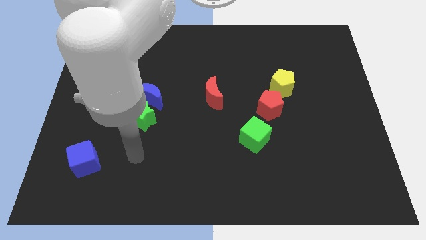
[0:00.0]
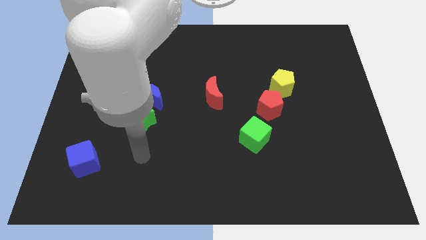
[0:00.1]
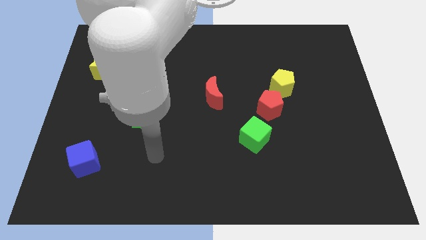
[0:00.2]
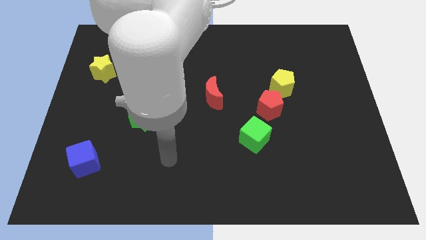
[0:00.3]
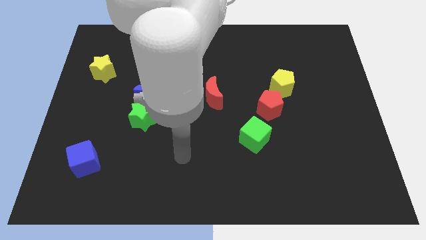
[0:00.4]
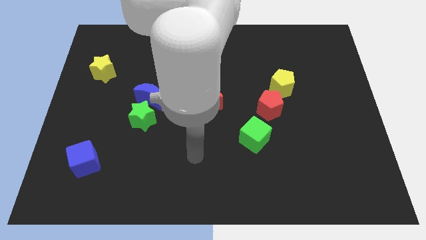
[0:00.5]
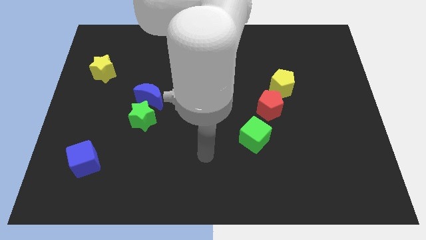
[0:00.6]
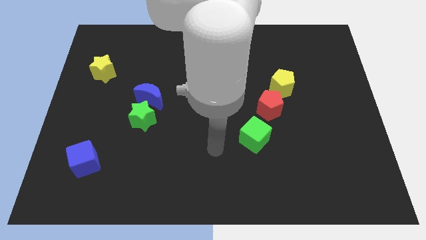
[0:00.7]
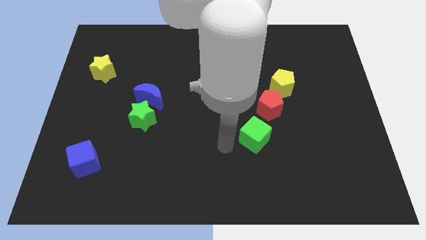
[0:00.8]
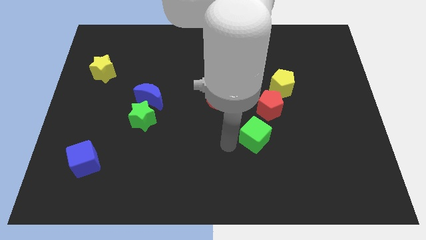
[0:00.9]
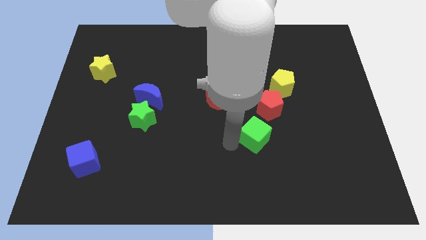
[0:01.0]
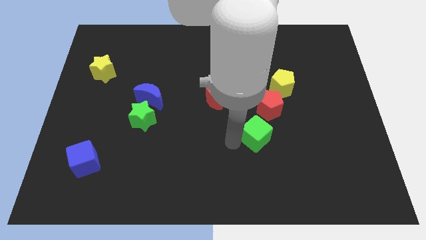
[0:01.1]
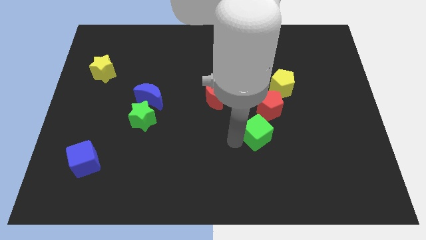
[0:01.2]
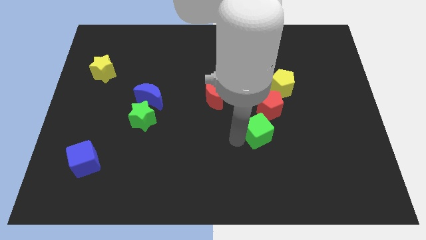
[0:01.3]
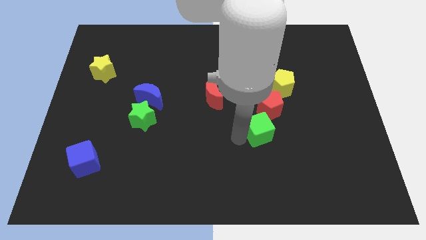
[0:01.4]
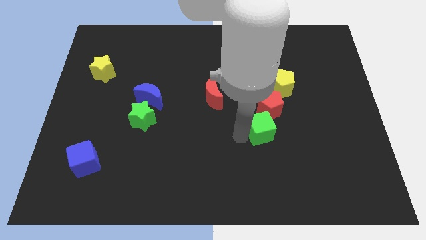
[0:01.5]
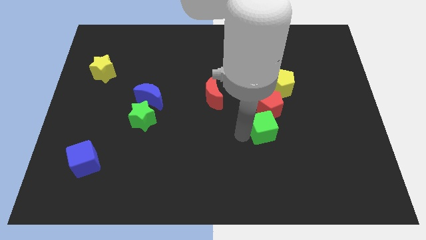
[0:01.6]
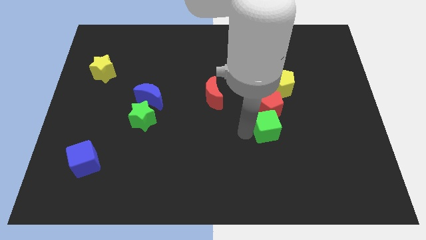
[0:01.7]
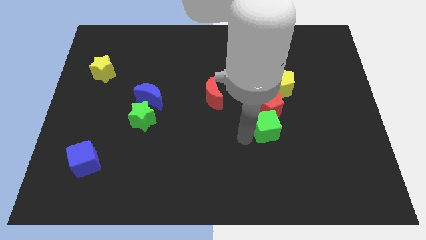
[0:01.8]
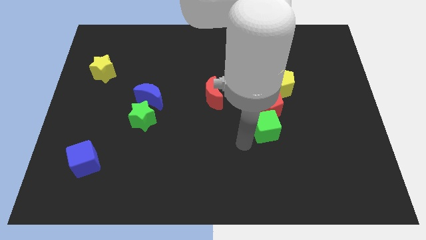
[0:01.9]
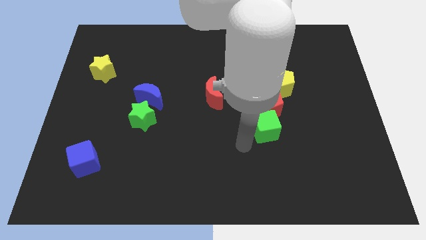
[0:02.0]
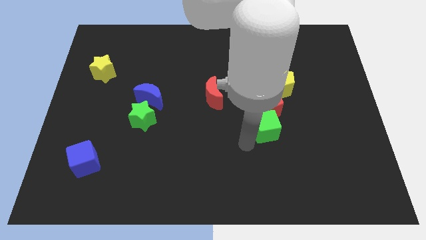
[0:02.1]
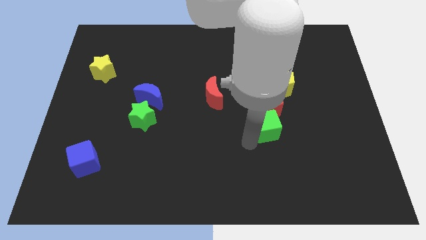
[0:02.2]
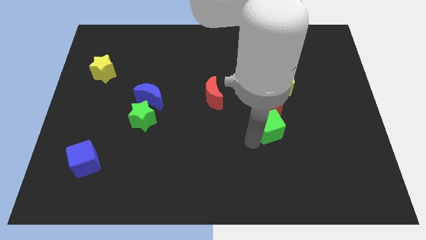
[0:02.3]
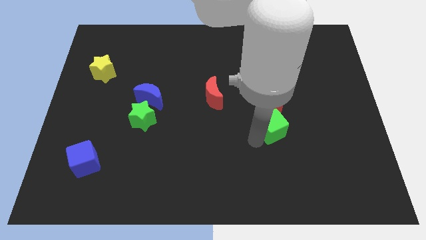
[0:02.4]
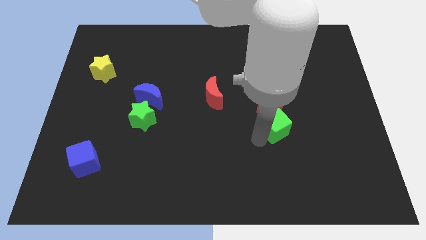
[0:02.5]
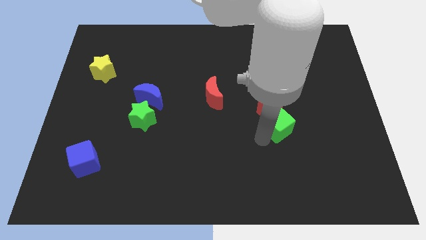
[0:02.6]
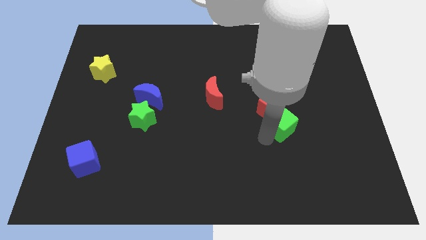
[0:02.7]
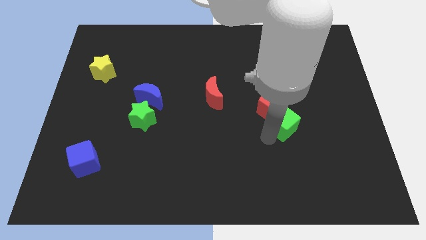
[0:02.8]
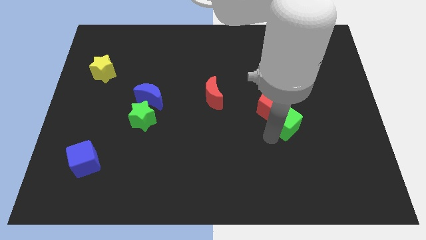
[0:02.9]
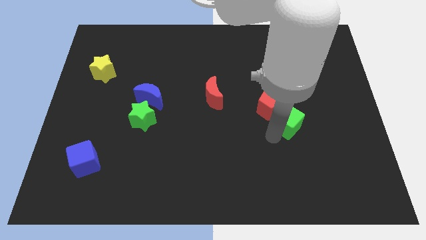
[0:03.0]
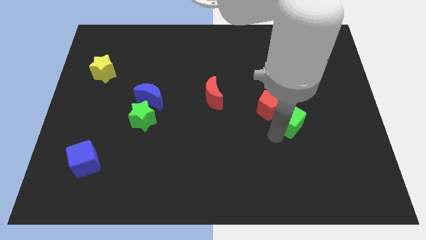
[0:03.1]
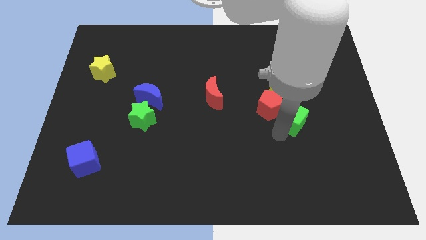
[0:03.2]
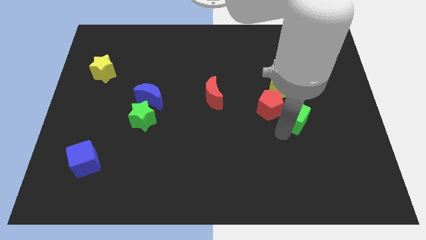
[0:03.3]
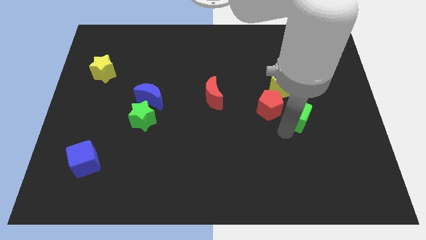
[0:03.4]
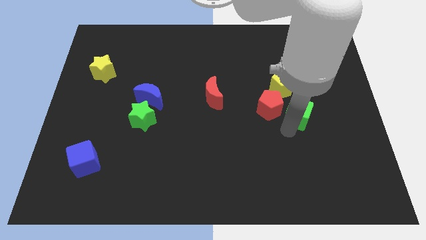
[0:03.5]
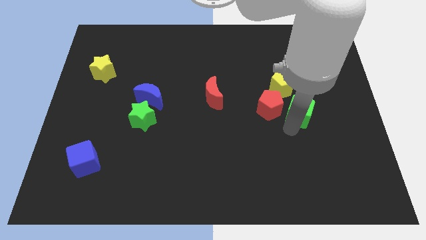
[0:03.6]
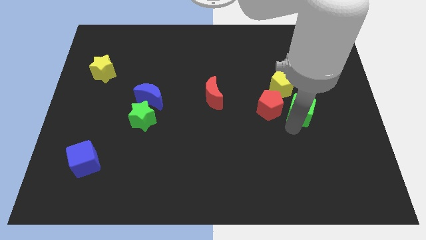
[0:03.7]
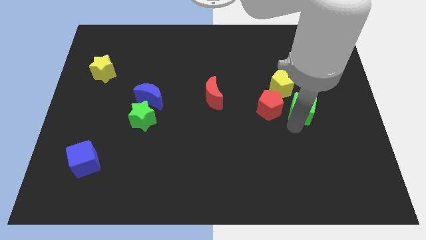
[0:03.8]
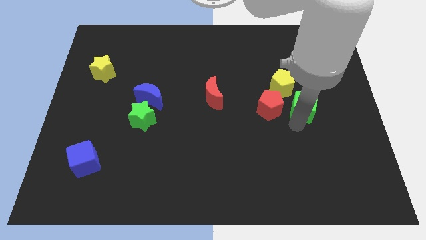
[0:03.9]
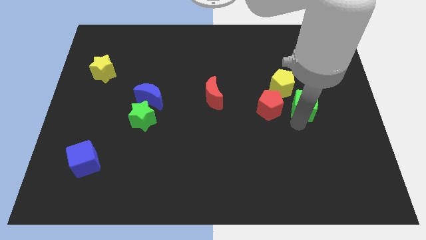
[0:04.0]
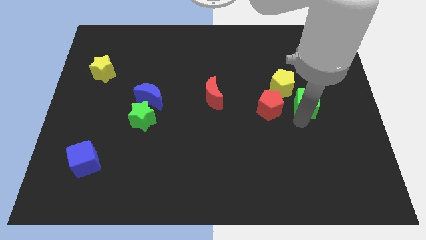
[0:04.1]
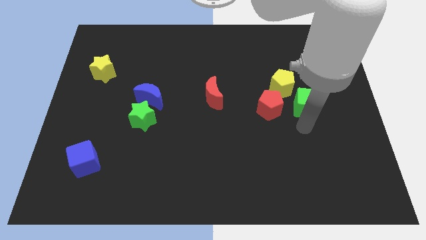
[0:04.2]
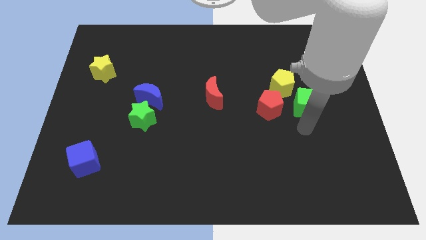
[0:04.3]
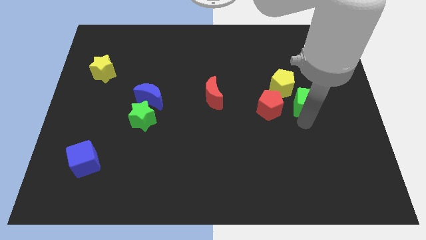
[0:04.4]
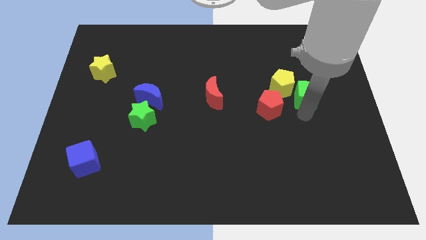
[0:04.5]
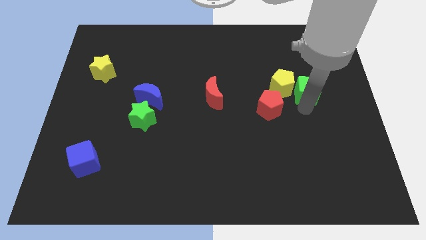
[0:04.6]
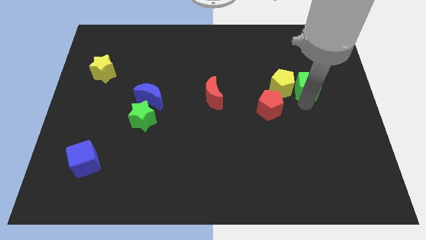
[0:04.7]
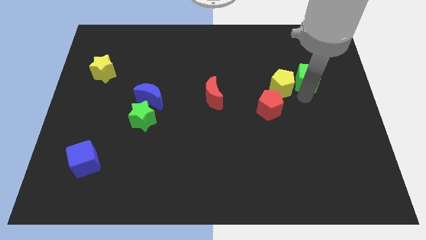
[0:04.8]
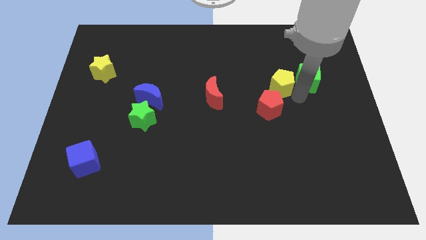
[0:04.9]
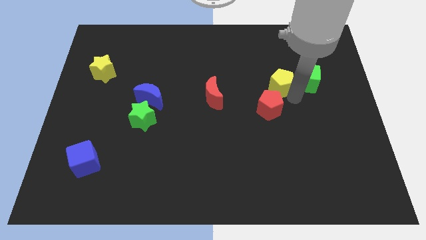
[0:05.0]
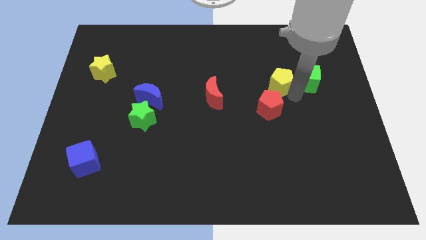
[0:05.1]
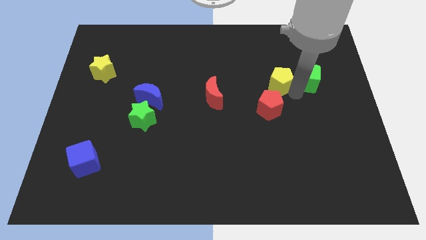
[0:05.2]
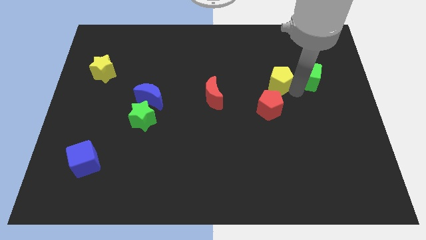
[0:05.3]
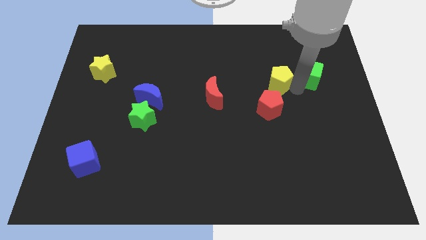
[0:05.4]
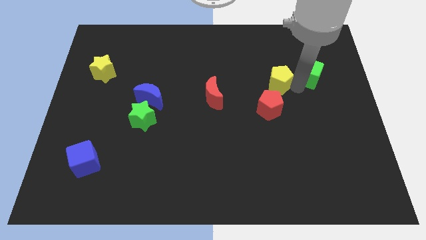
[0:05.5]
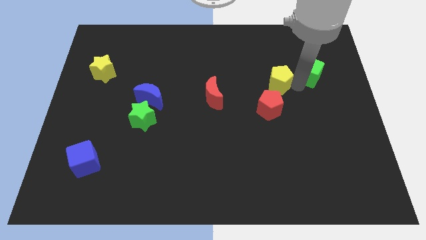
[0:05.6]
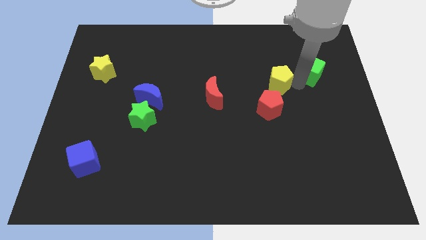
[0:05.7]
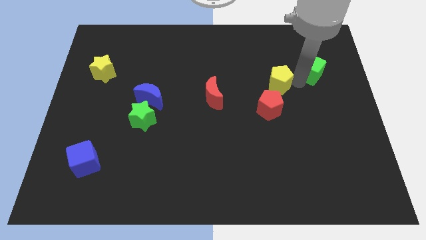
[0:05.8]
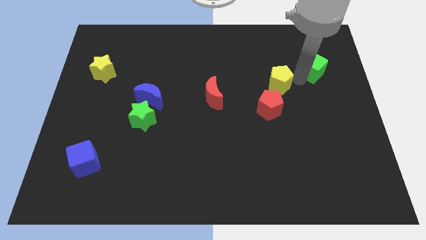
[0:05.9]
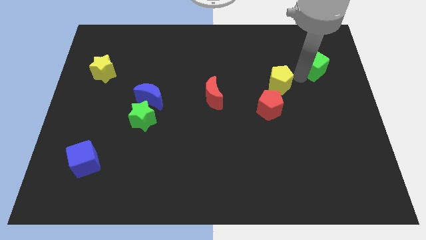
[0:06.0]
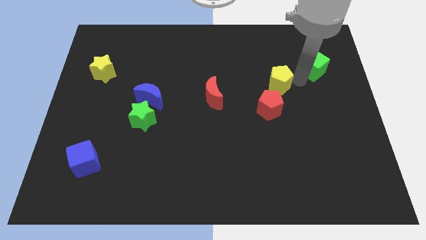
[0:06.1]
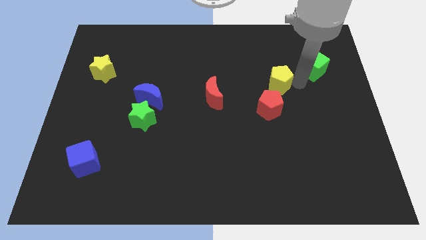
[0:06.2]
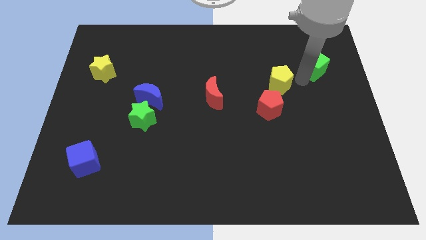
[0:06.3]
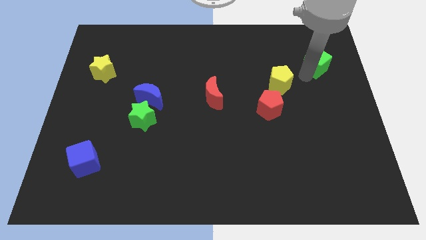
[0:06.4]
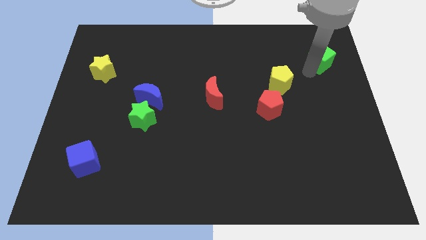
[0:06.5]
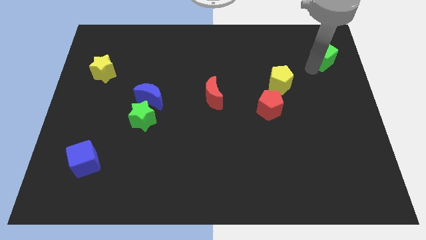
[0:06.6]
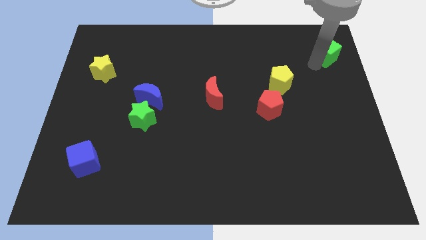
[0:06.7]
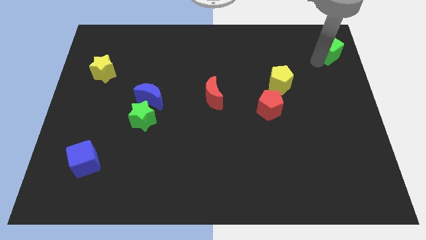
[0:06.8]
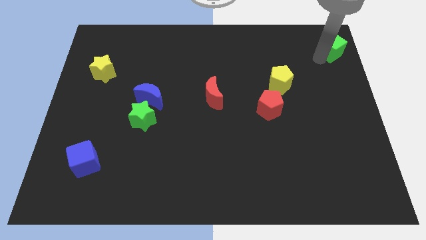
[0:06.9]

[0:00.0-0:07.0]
put the green cube to the upper right corner

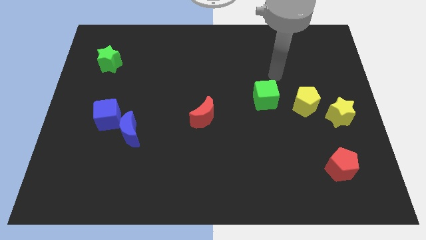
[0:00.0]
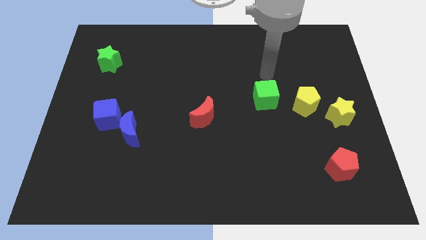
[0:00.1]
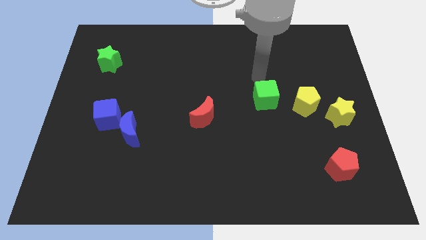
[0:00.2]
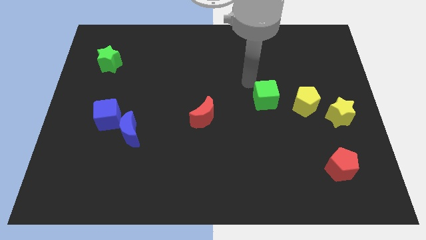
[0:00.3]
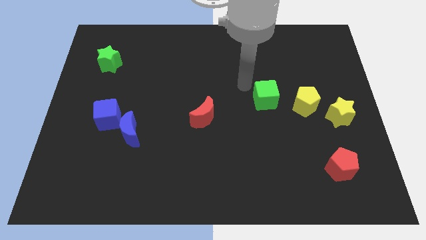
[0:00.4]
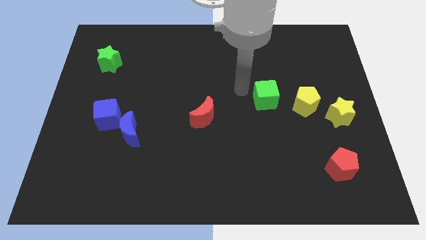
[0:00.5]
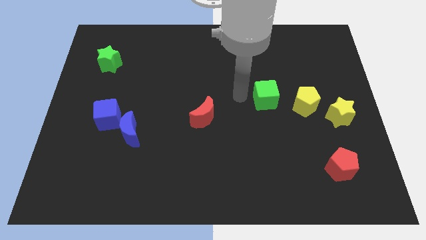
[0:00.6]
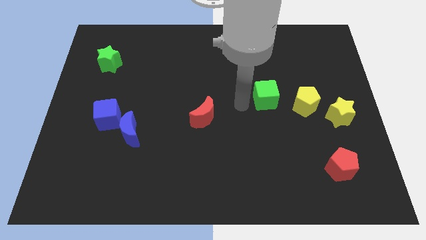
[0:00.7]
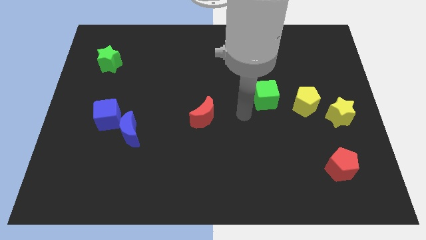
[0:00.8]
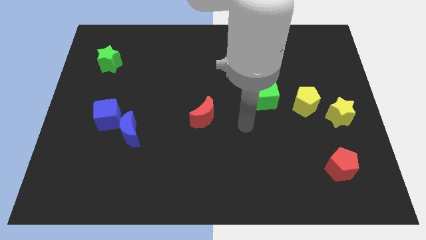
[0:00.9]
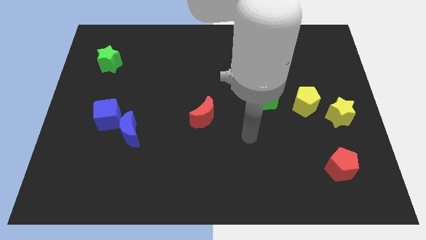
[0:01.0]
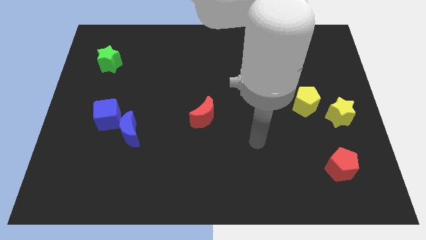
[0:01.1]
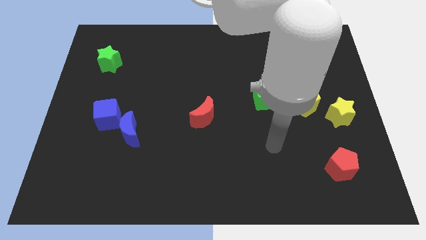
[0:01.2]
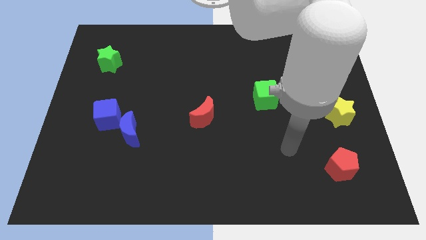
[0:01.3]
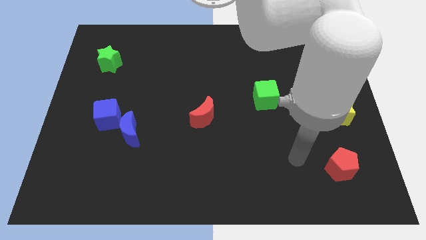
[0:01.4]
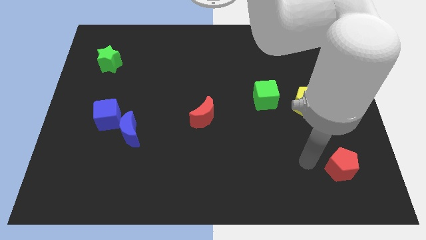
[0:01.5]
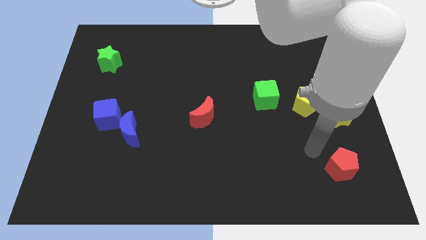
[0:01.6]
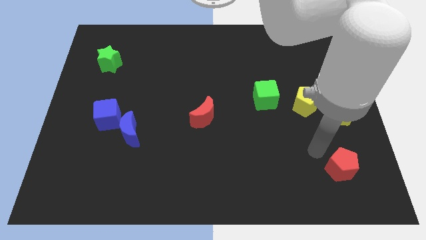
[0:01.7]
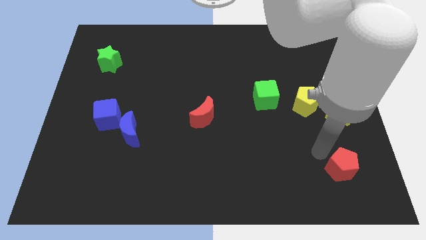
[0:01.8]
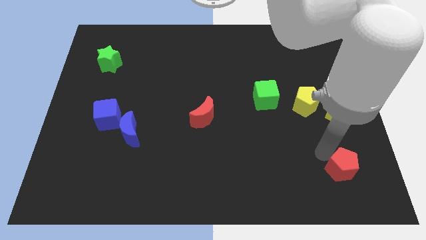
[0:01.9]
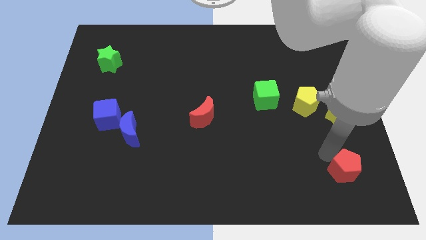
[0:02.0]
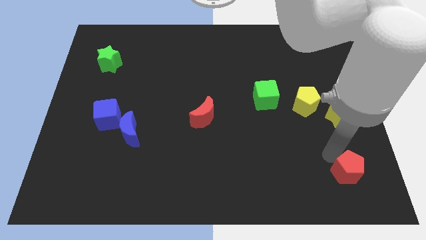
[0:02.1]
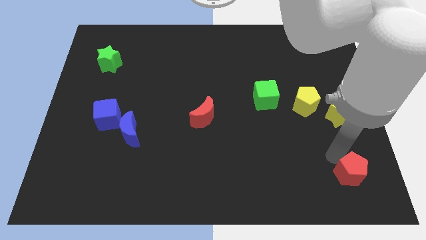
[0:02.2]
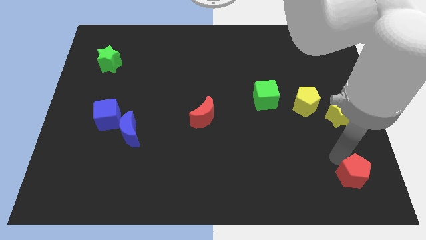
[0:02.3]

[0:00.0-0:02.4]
push the red pentagon to the bottom right corner
